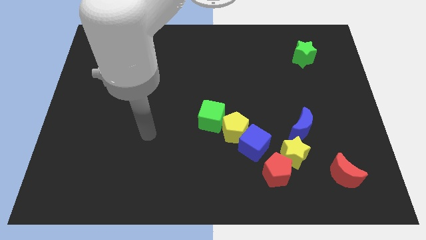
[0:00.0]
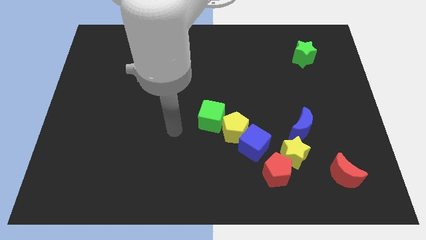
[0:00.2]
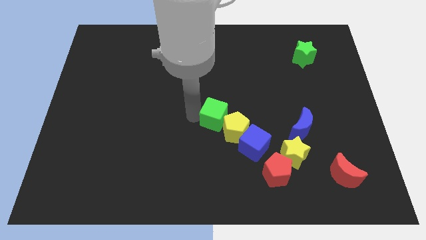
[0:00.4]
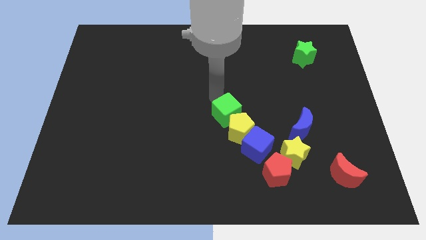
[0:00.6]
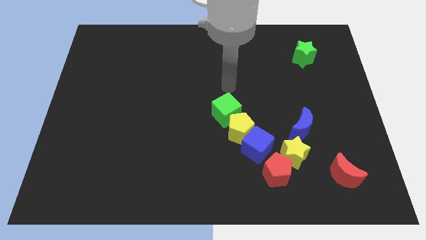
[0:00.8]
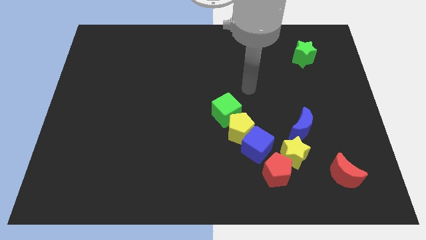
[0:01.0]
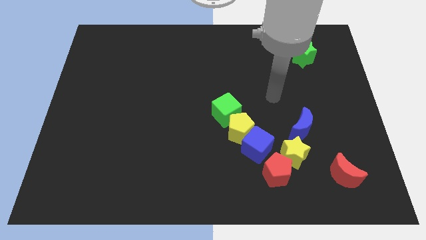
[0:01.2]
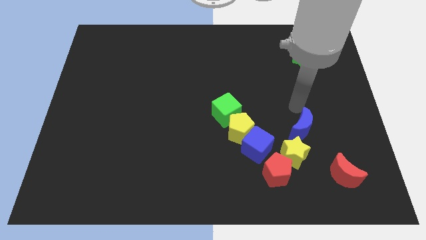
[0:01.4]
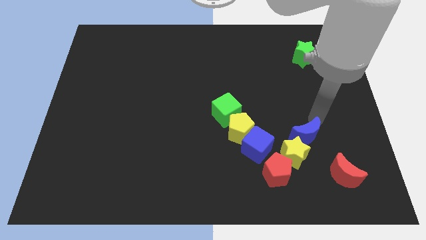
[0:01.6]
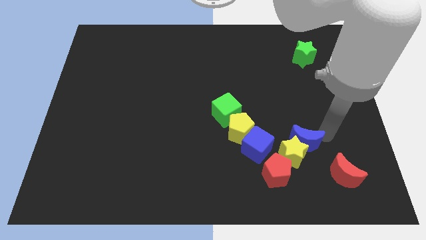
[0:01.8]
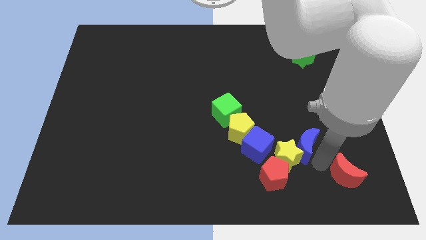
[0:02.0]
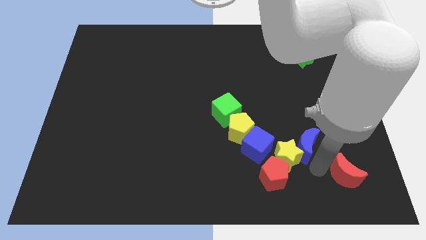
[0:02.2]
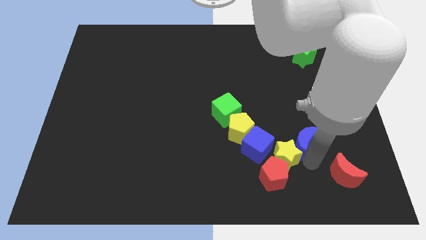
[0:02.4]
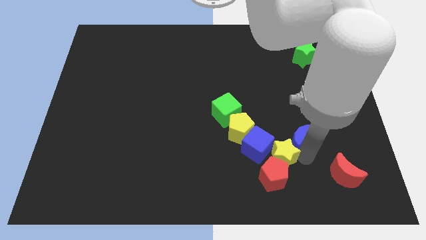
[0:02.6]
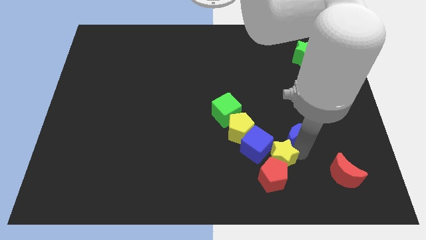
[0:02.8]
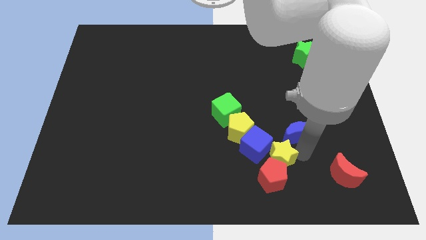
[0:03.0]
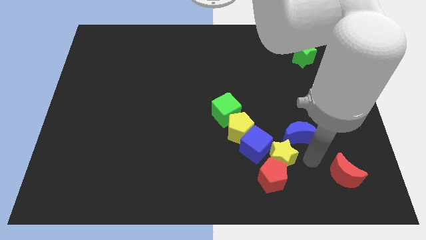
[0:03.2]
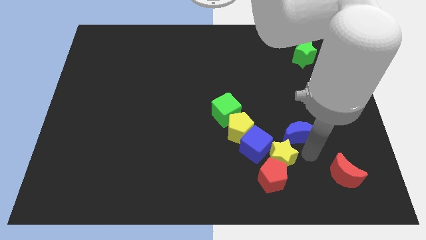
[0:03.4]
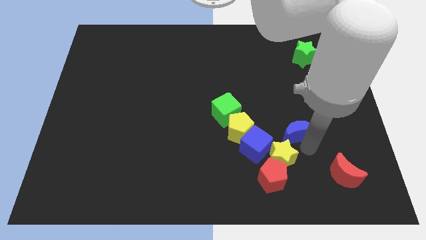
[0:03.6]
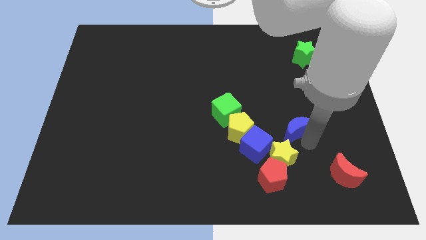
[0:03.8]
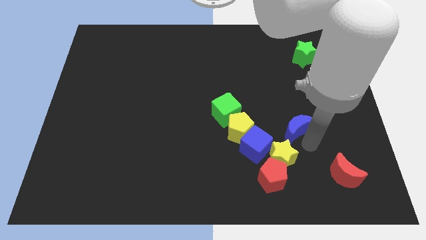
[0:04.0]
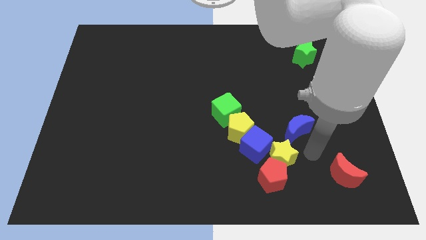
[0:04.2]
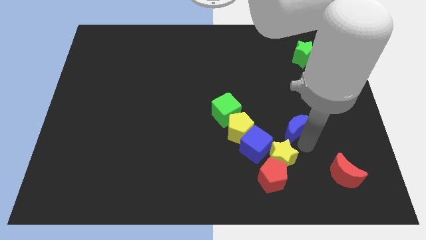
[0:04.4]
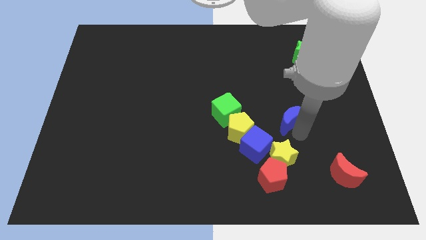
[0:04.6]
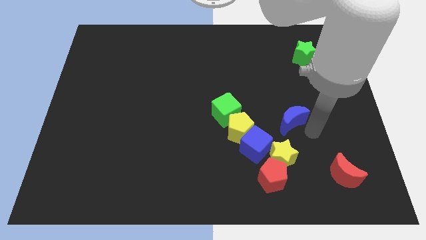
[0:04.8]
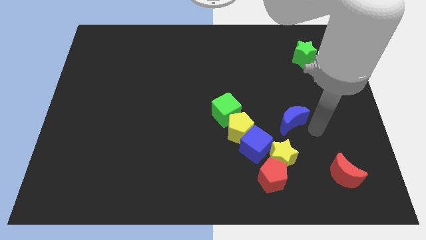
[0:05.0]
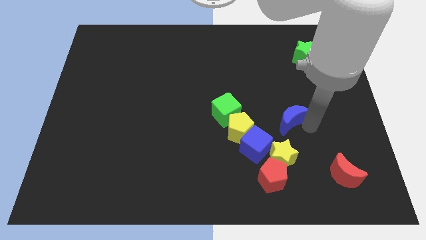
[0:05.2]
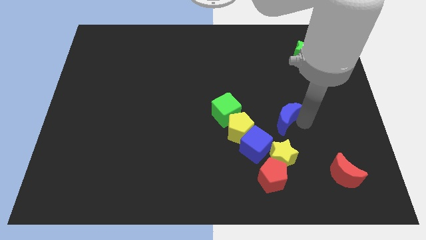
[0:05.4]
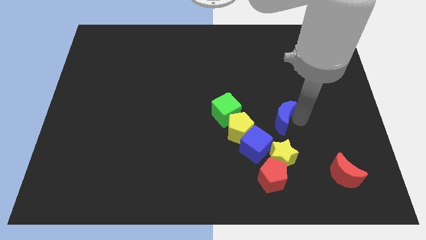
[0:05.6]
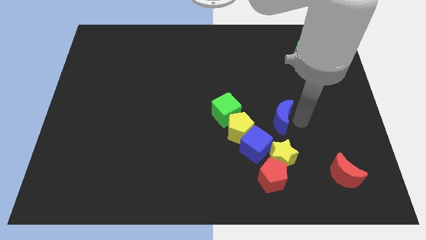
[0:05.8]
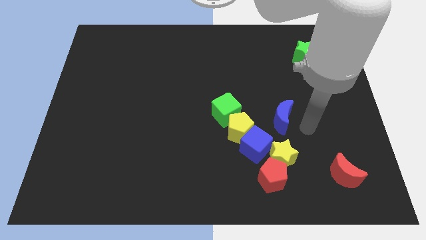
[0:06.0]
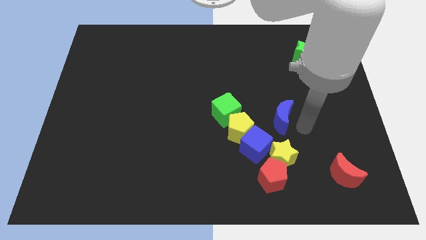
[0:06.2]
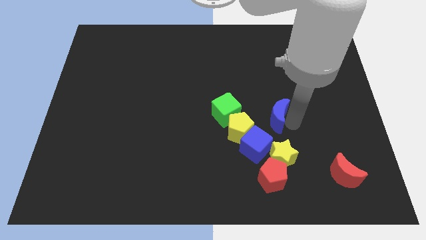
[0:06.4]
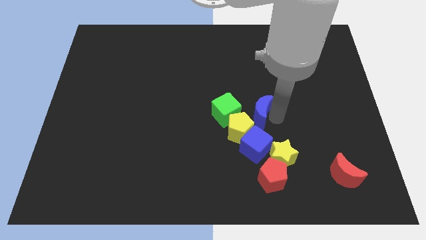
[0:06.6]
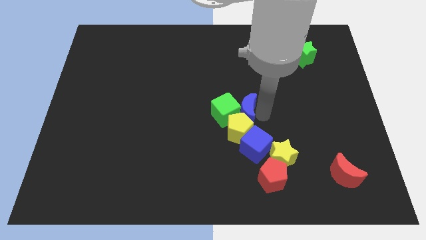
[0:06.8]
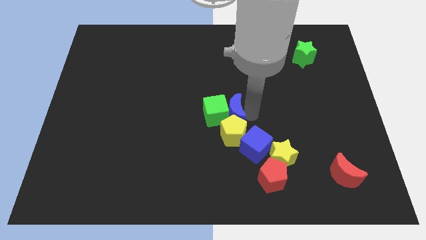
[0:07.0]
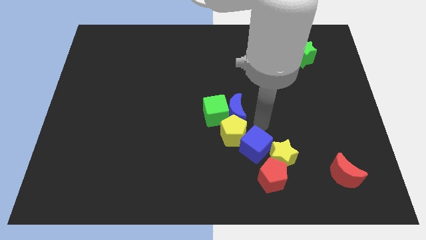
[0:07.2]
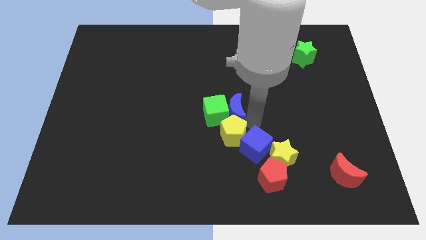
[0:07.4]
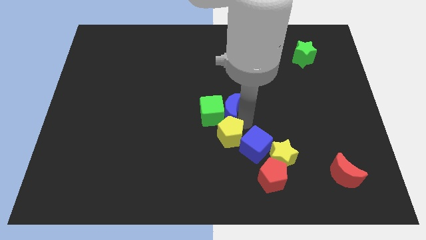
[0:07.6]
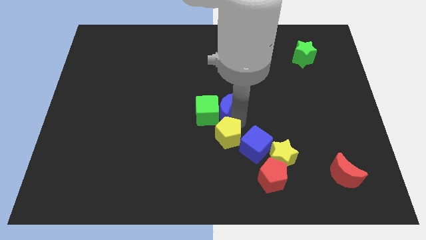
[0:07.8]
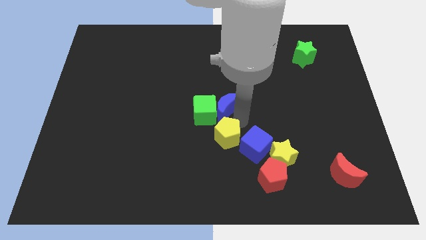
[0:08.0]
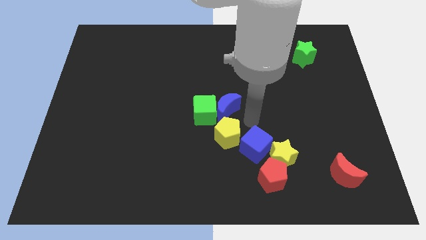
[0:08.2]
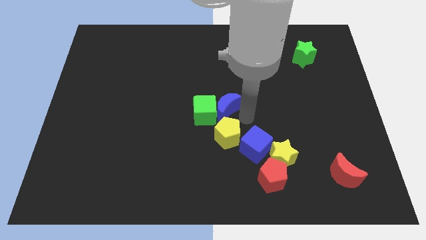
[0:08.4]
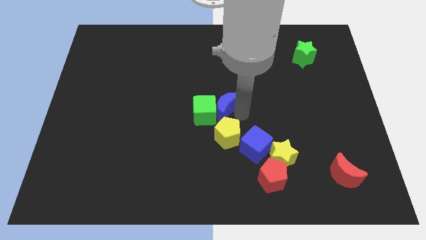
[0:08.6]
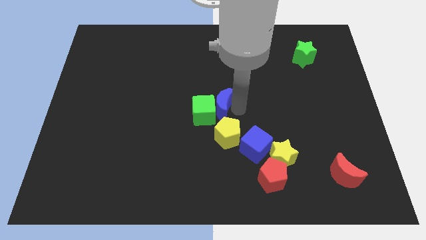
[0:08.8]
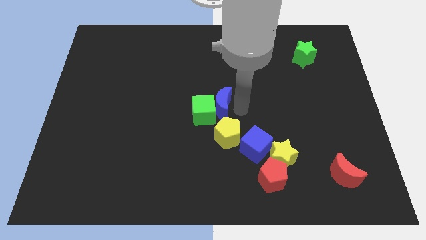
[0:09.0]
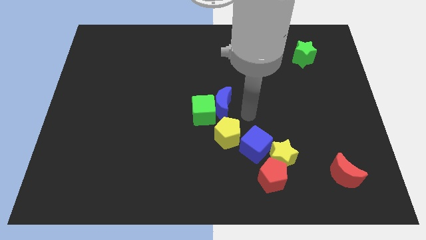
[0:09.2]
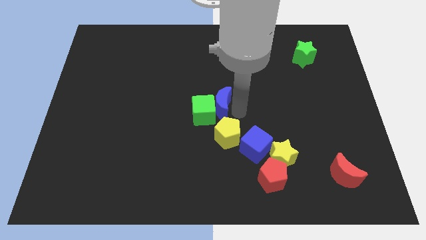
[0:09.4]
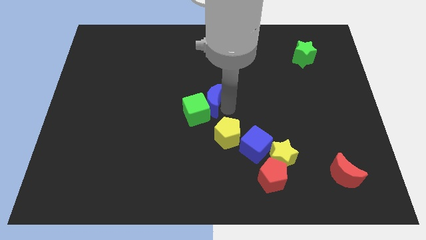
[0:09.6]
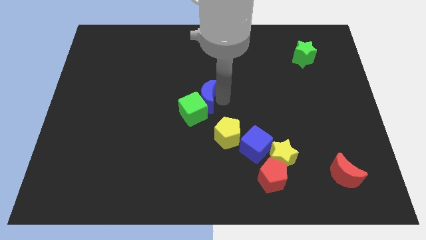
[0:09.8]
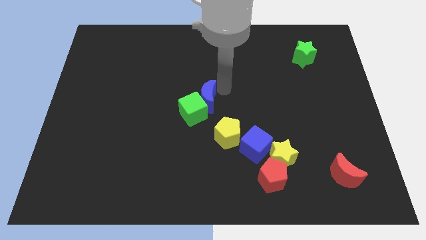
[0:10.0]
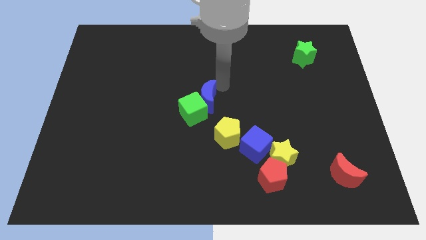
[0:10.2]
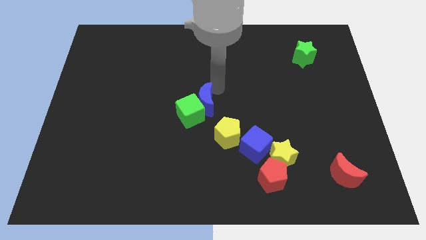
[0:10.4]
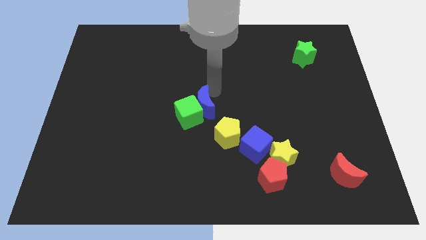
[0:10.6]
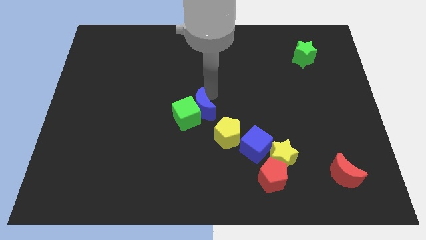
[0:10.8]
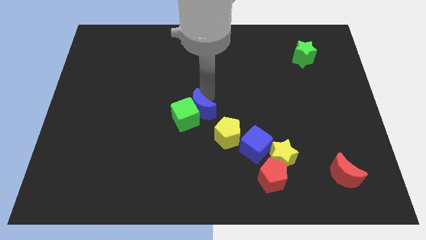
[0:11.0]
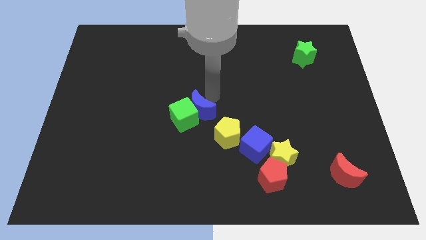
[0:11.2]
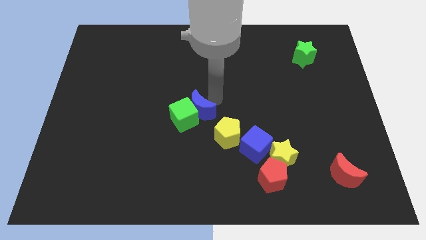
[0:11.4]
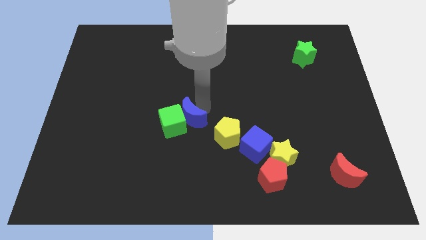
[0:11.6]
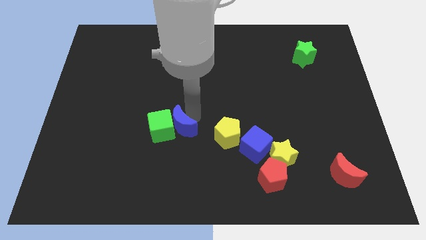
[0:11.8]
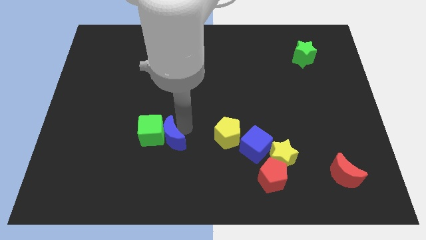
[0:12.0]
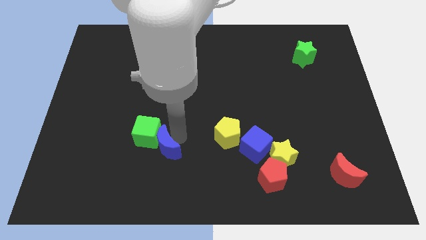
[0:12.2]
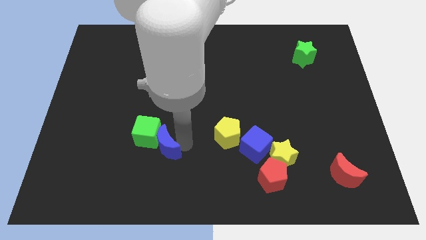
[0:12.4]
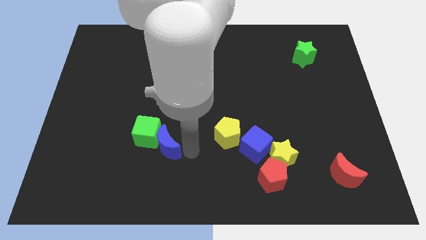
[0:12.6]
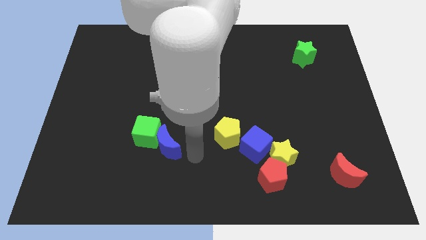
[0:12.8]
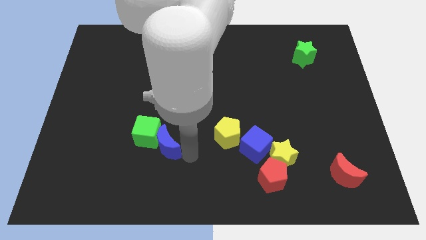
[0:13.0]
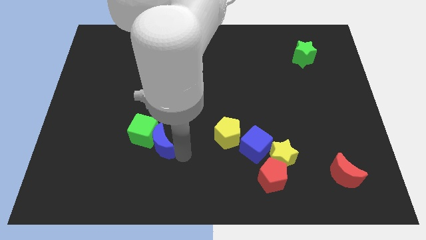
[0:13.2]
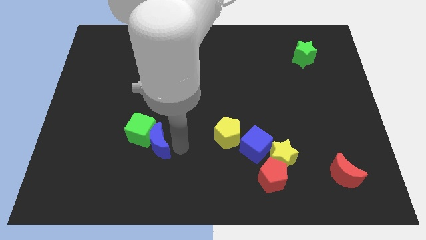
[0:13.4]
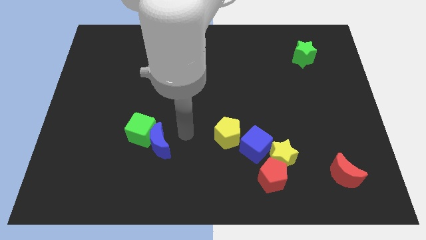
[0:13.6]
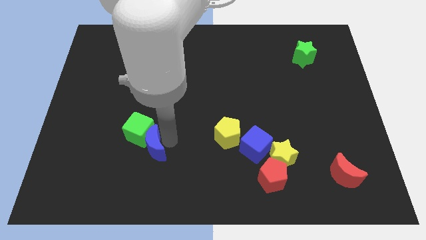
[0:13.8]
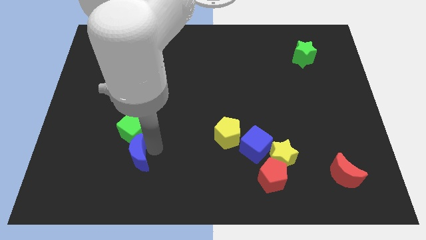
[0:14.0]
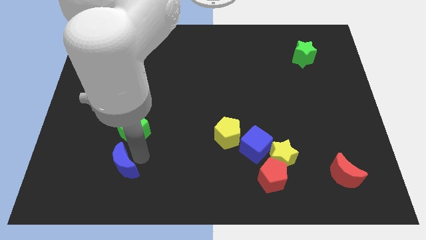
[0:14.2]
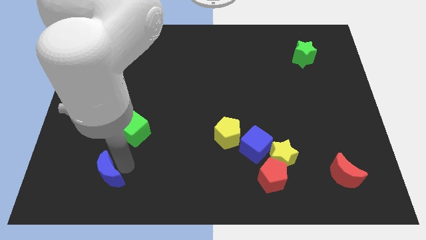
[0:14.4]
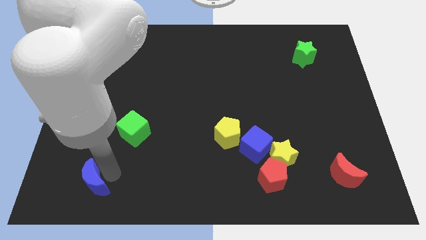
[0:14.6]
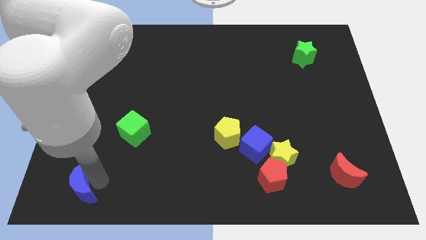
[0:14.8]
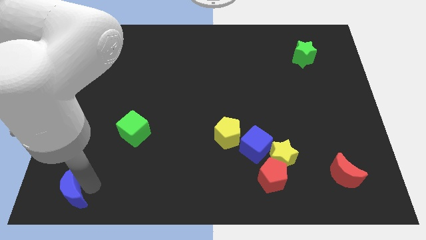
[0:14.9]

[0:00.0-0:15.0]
push the blue moon to the bottom left of the board
